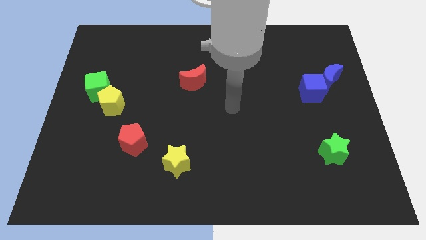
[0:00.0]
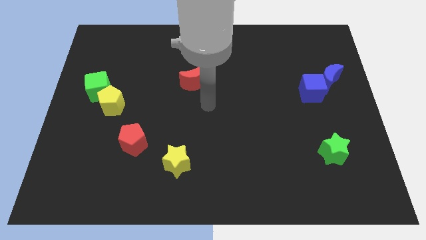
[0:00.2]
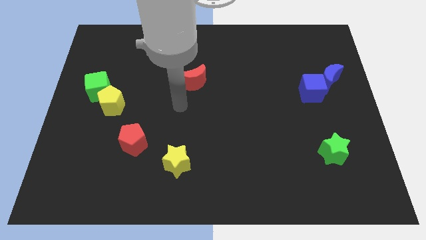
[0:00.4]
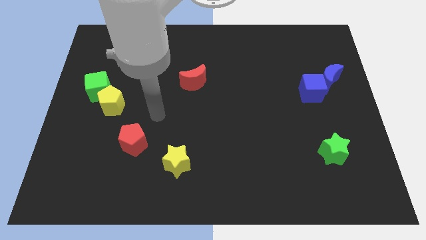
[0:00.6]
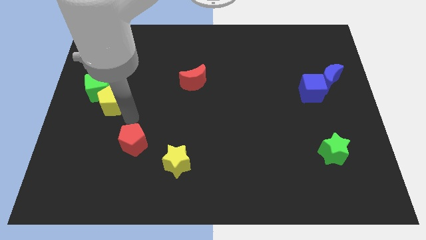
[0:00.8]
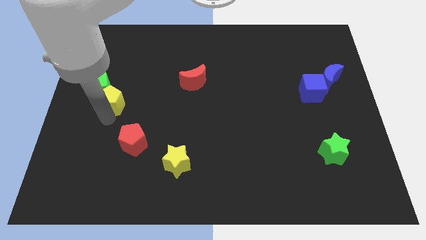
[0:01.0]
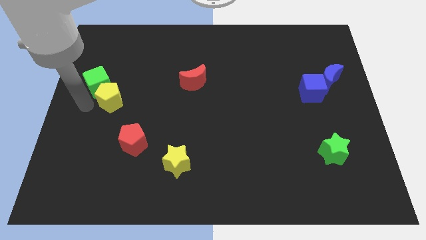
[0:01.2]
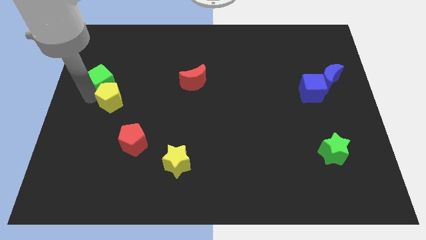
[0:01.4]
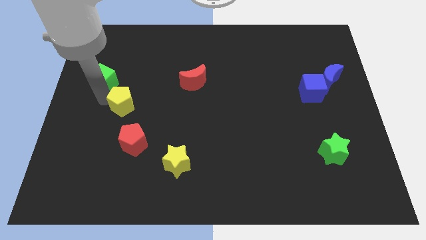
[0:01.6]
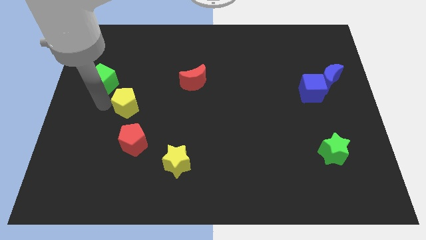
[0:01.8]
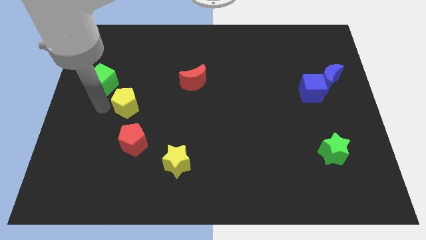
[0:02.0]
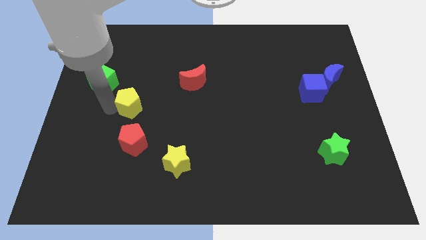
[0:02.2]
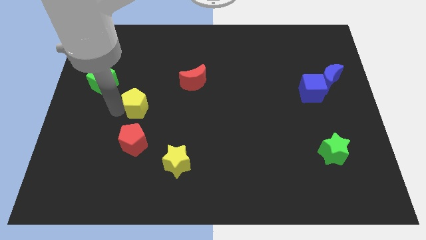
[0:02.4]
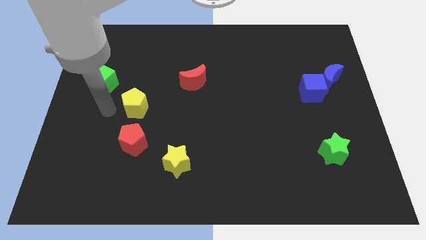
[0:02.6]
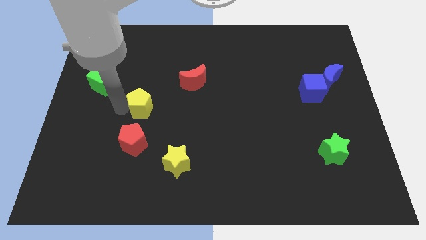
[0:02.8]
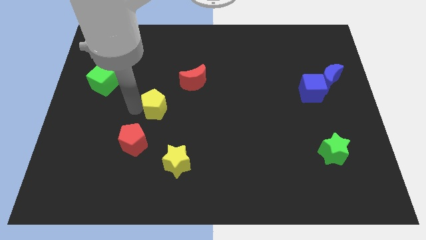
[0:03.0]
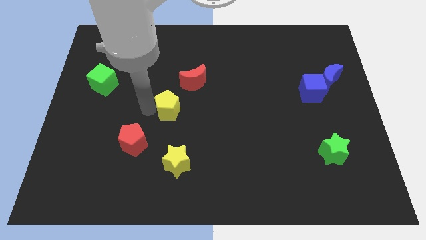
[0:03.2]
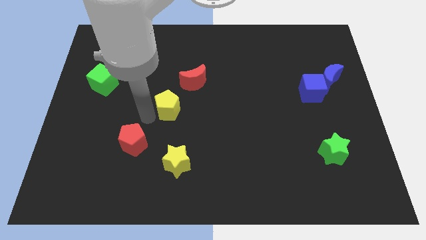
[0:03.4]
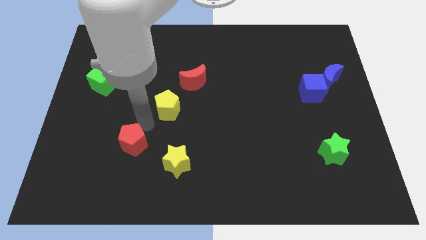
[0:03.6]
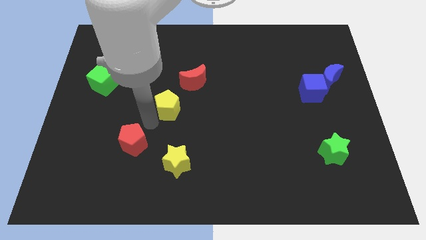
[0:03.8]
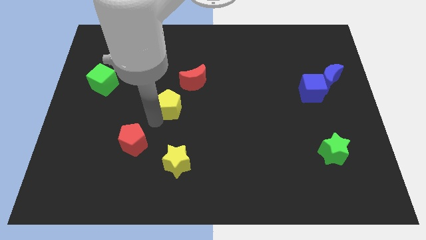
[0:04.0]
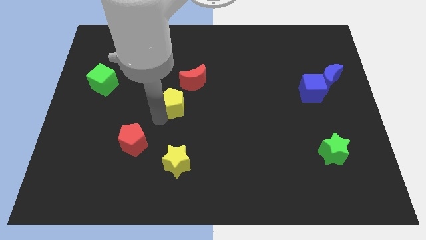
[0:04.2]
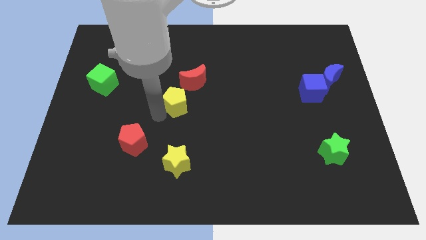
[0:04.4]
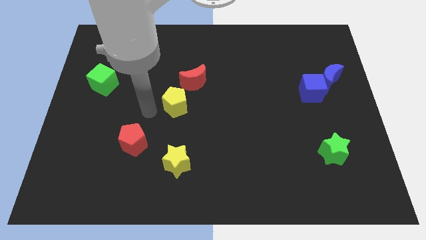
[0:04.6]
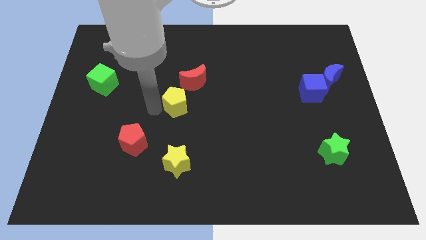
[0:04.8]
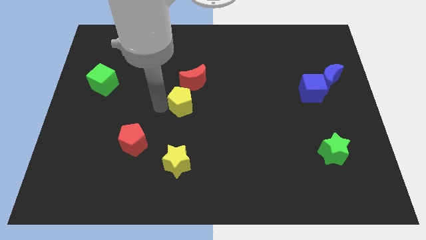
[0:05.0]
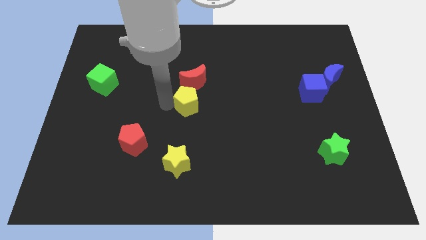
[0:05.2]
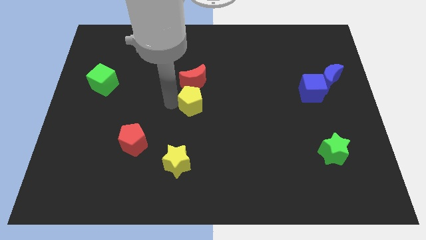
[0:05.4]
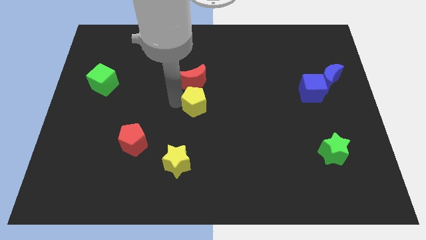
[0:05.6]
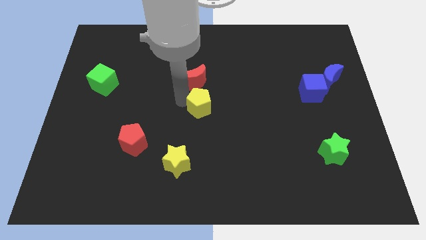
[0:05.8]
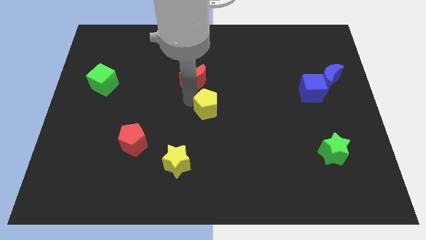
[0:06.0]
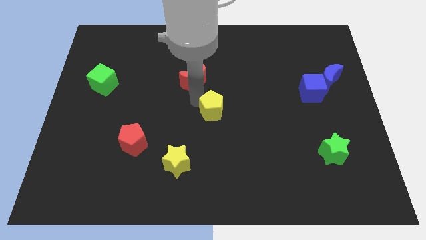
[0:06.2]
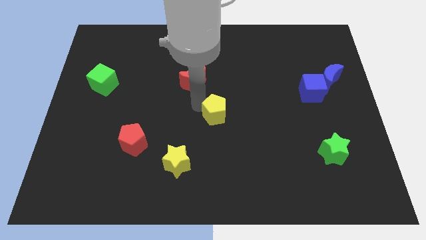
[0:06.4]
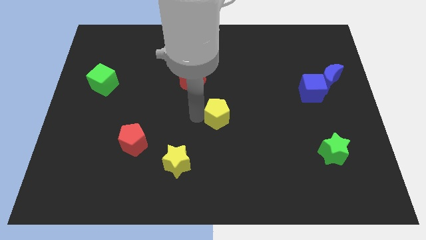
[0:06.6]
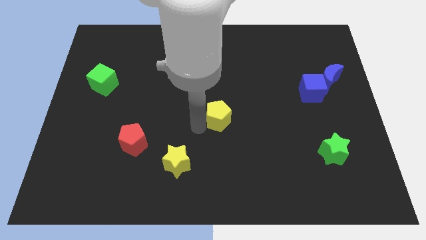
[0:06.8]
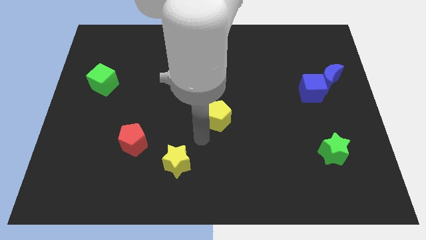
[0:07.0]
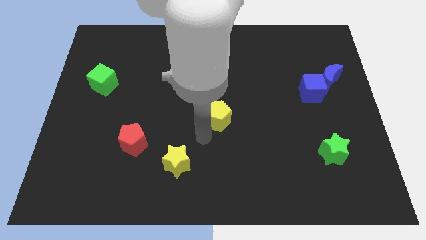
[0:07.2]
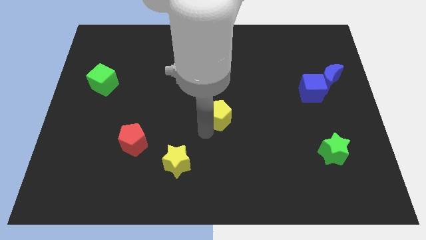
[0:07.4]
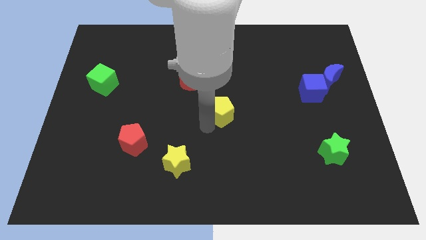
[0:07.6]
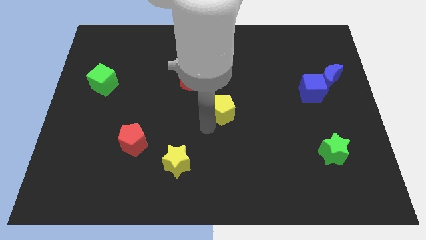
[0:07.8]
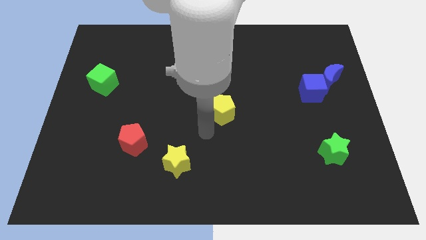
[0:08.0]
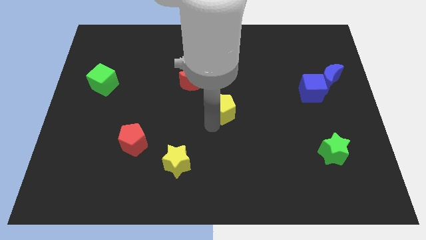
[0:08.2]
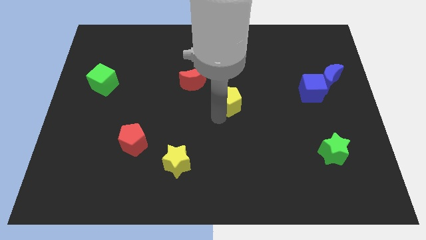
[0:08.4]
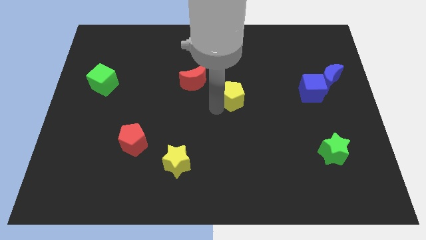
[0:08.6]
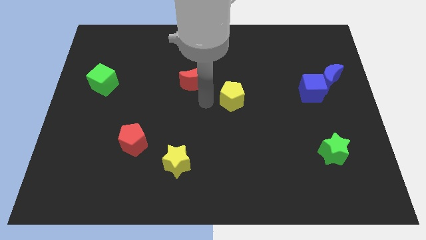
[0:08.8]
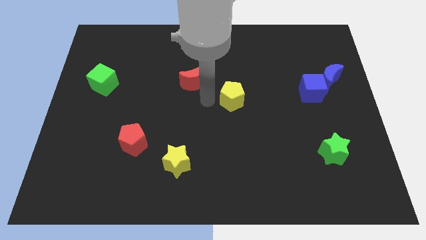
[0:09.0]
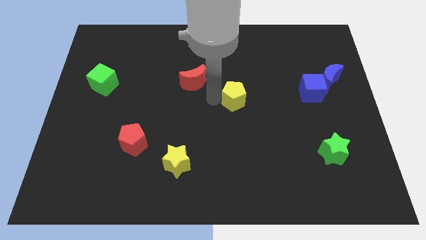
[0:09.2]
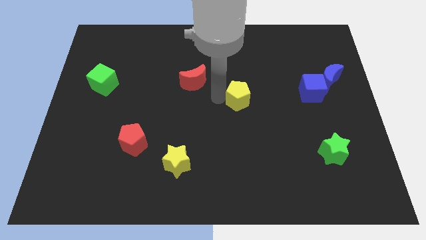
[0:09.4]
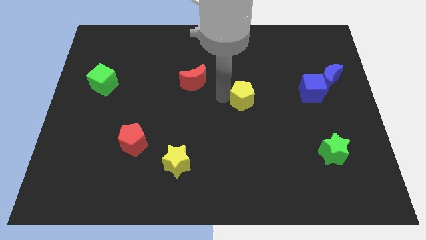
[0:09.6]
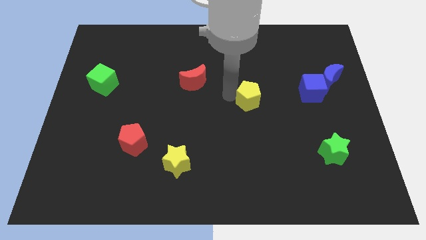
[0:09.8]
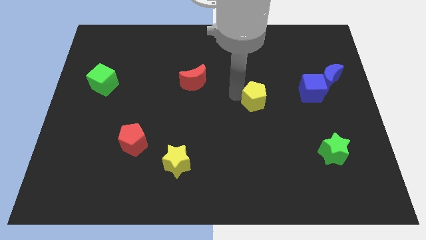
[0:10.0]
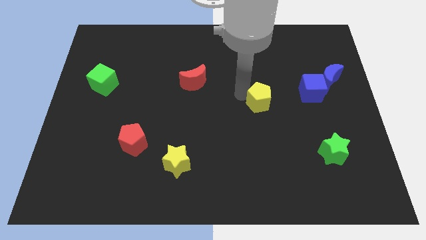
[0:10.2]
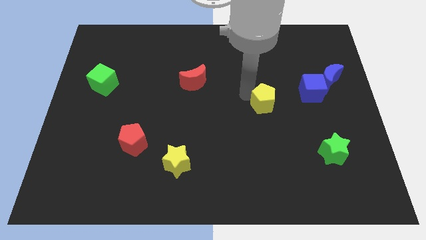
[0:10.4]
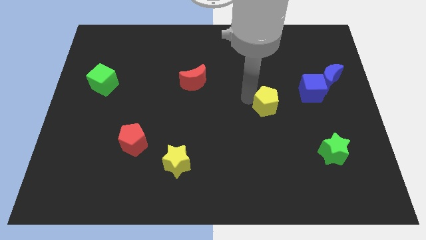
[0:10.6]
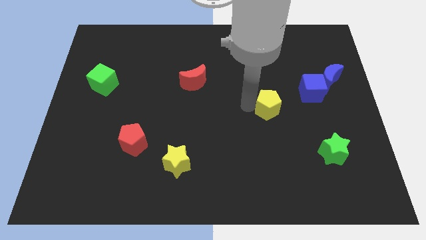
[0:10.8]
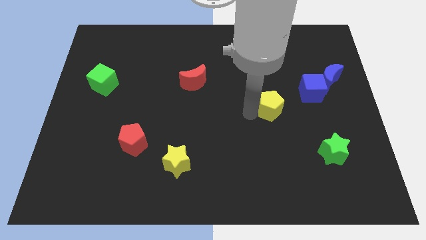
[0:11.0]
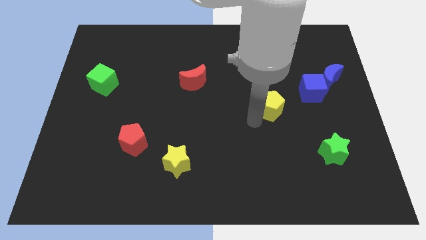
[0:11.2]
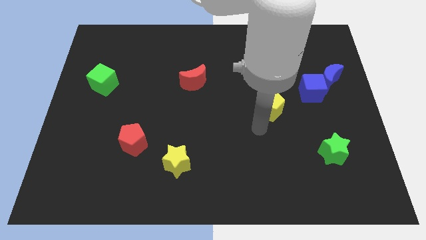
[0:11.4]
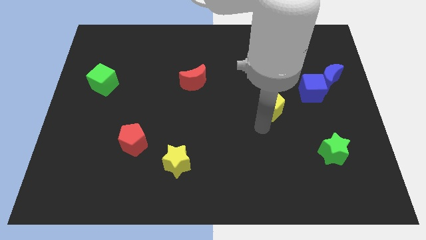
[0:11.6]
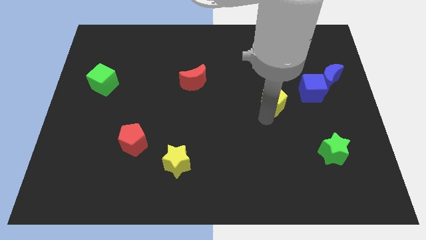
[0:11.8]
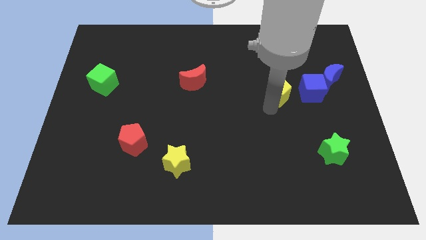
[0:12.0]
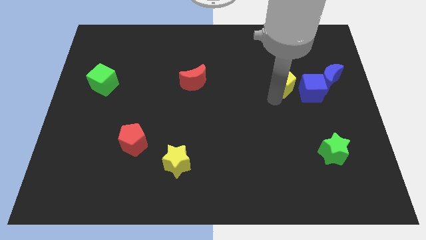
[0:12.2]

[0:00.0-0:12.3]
move the yellow pentagon diagonally up and to the left of the blue cube
